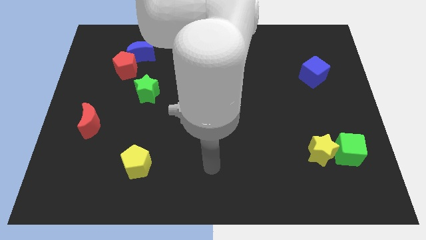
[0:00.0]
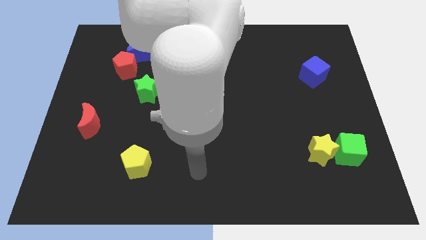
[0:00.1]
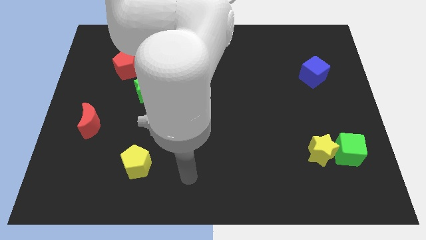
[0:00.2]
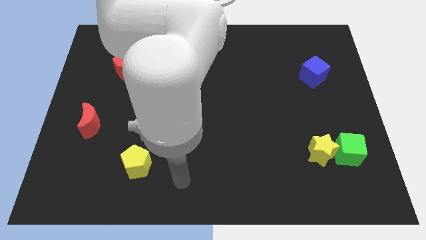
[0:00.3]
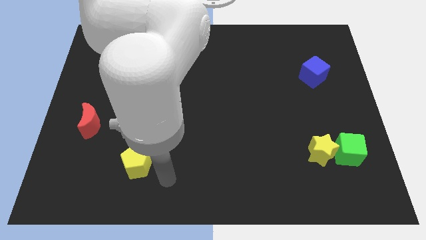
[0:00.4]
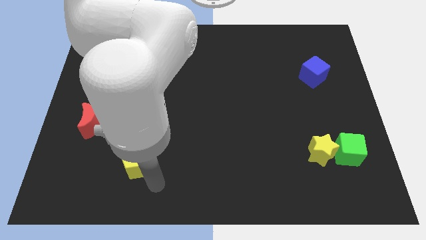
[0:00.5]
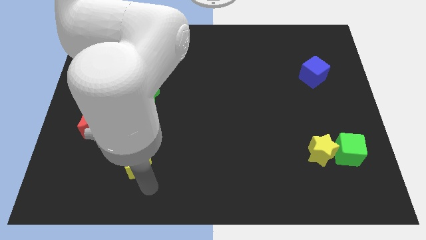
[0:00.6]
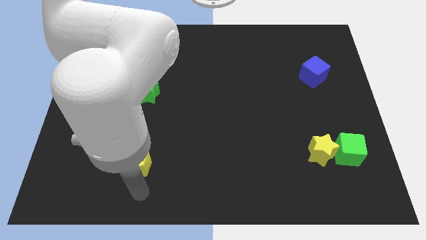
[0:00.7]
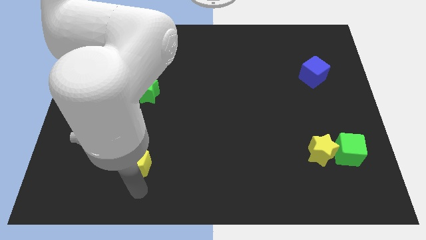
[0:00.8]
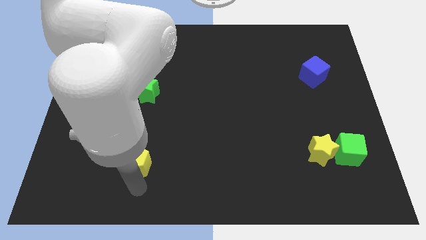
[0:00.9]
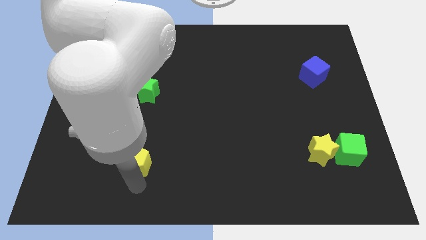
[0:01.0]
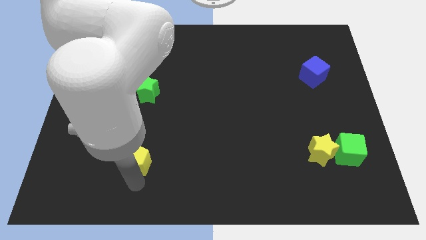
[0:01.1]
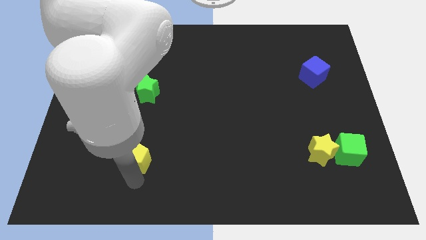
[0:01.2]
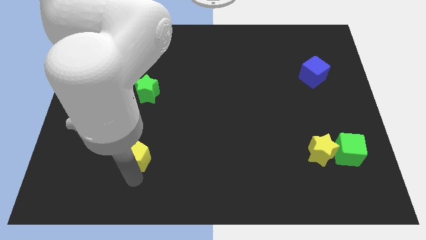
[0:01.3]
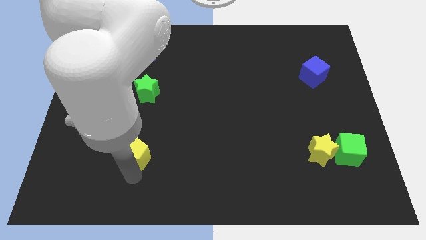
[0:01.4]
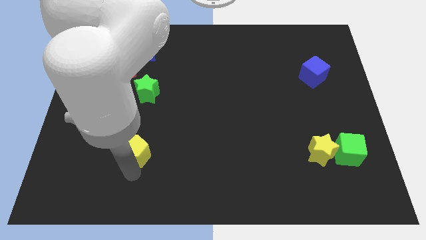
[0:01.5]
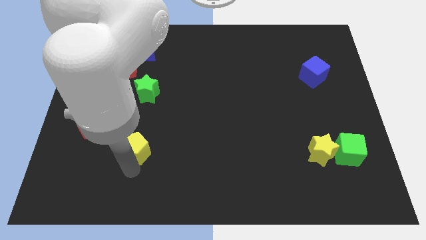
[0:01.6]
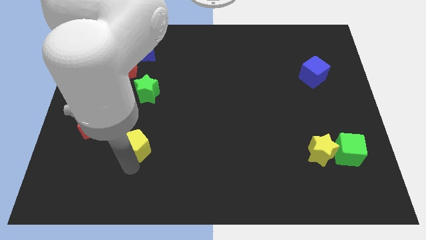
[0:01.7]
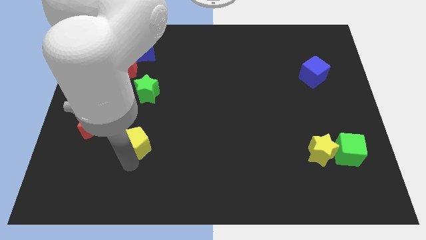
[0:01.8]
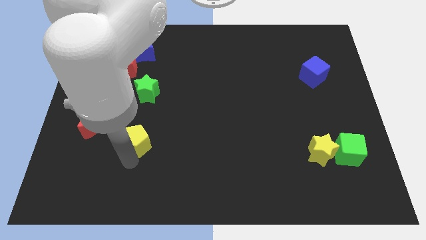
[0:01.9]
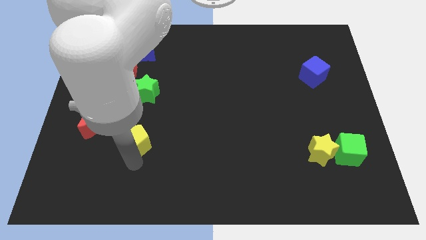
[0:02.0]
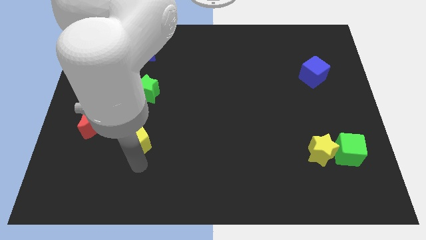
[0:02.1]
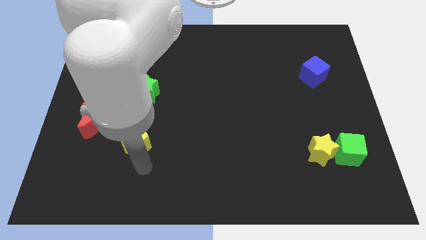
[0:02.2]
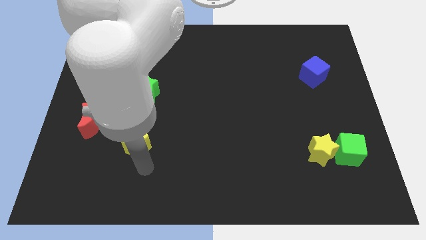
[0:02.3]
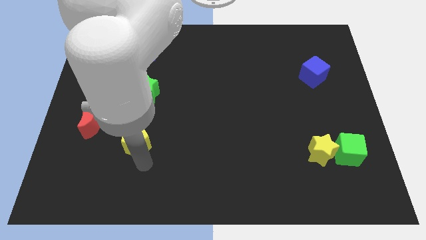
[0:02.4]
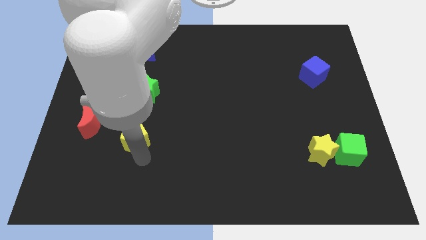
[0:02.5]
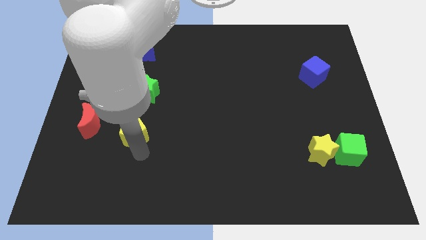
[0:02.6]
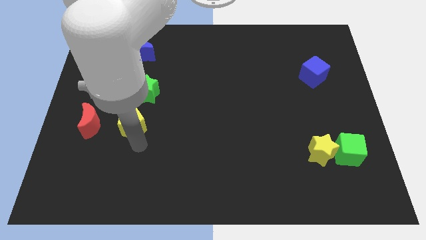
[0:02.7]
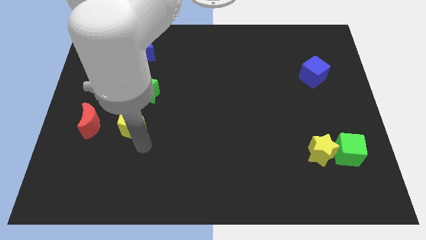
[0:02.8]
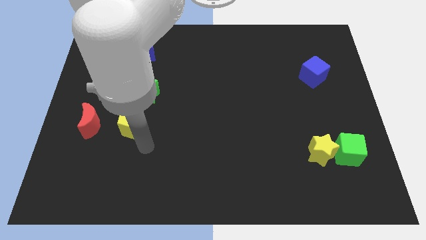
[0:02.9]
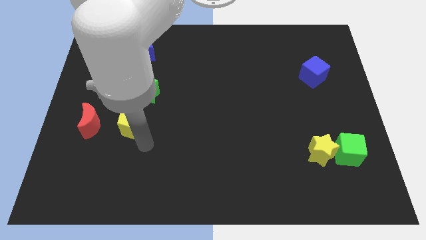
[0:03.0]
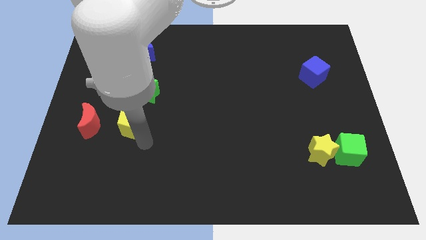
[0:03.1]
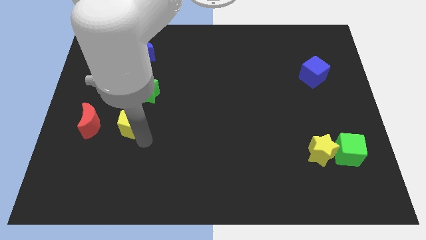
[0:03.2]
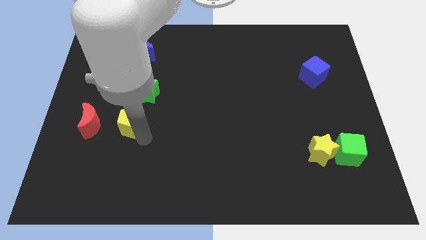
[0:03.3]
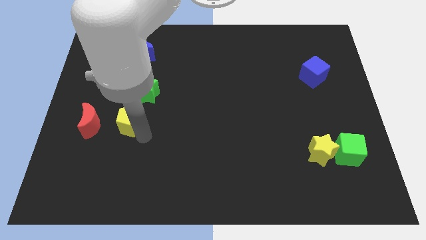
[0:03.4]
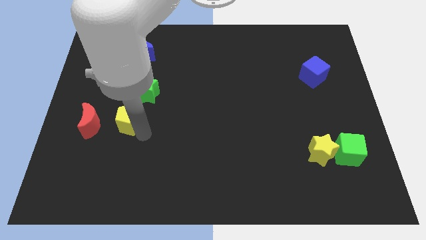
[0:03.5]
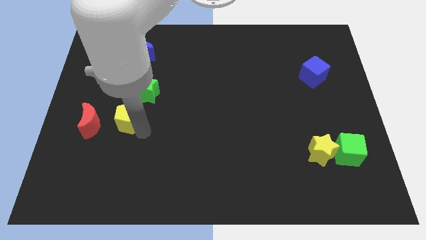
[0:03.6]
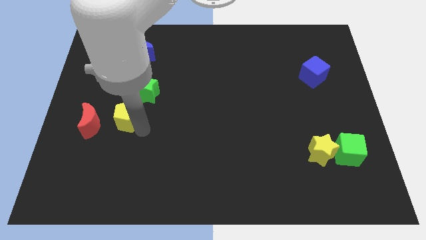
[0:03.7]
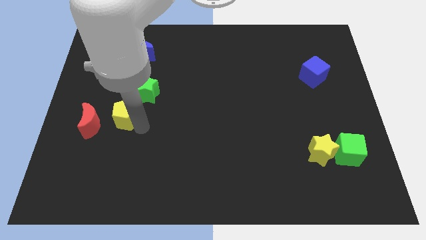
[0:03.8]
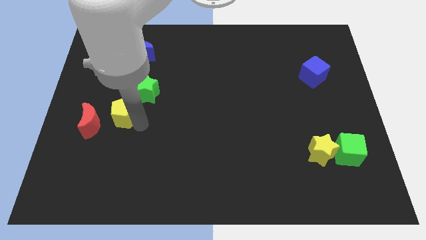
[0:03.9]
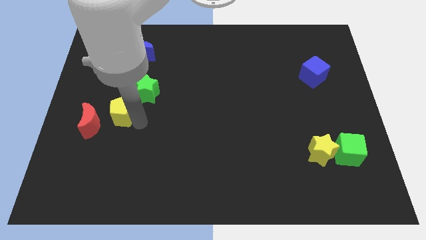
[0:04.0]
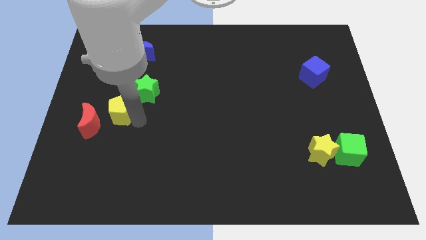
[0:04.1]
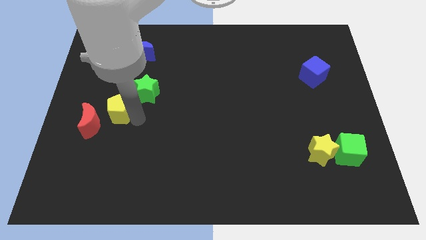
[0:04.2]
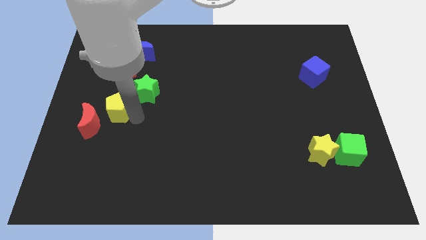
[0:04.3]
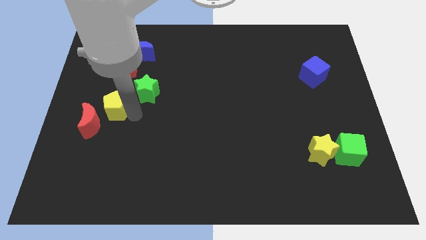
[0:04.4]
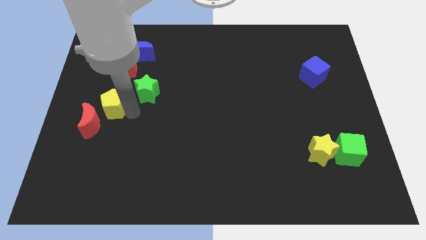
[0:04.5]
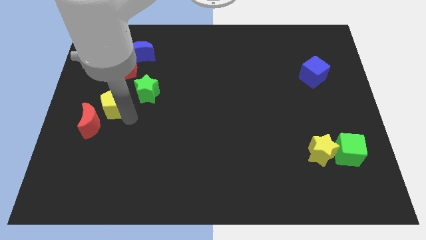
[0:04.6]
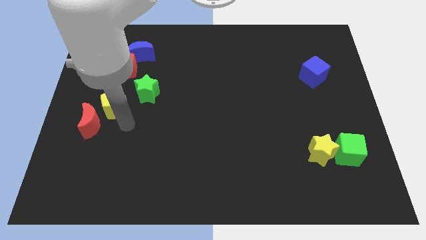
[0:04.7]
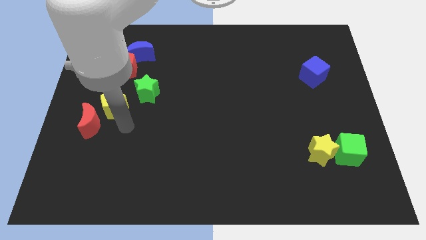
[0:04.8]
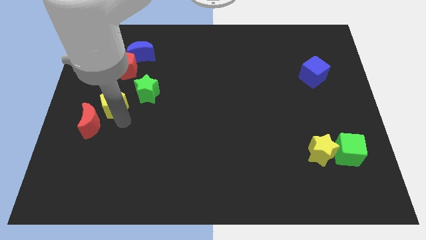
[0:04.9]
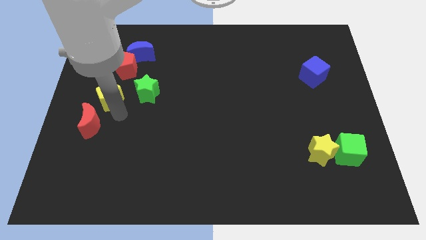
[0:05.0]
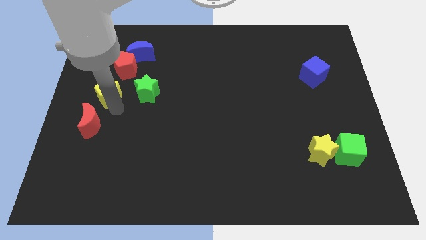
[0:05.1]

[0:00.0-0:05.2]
push the yellow pentagon diagonally down and to the left of the red pentagon

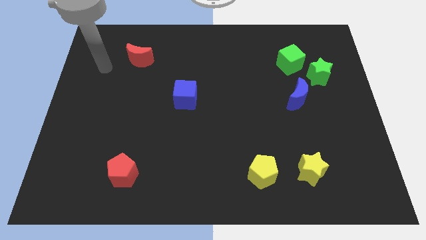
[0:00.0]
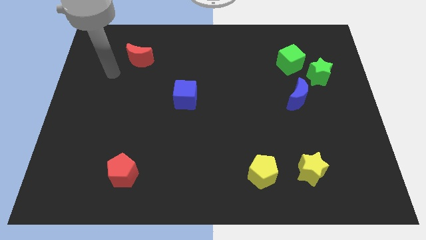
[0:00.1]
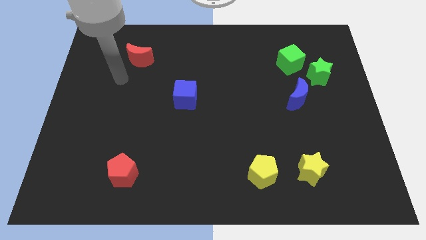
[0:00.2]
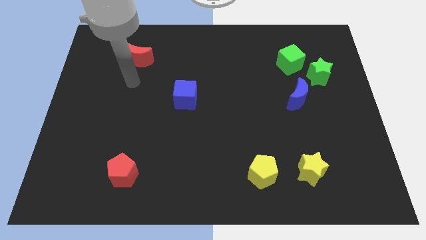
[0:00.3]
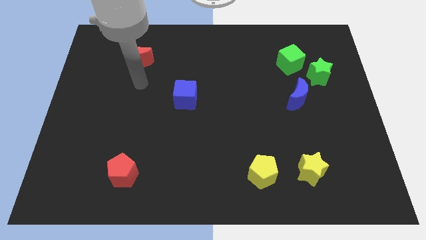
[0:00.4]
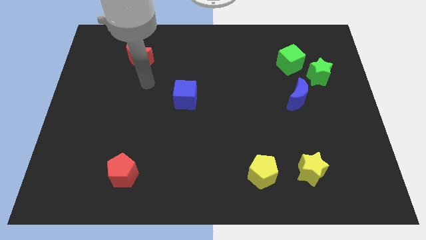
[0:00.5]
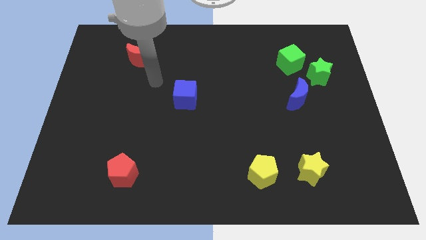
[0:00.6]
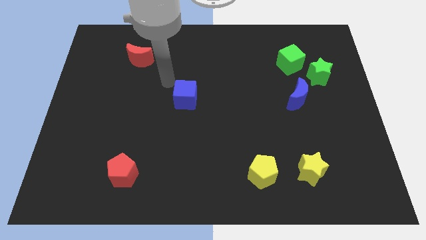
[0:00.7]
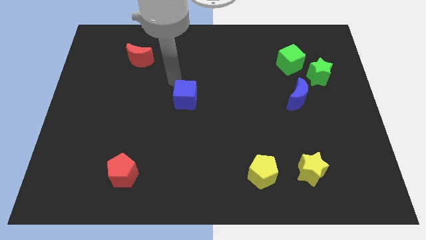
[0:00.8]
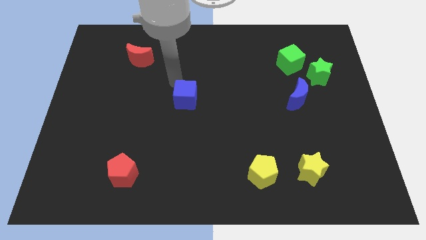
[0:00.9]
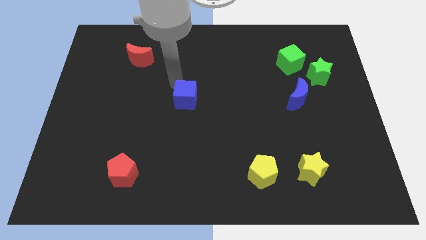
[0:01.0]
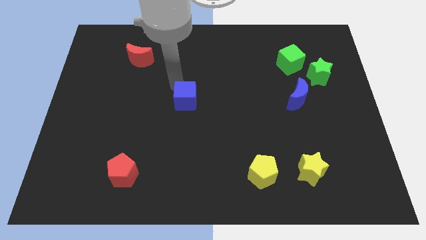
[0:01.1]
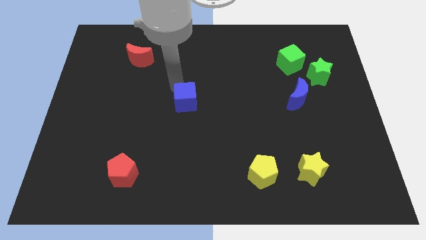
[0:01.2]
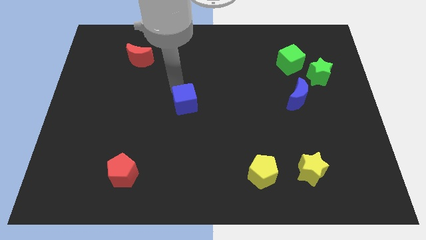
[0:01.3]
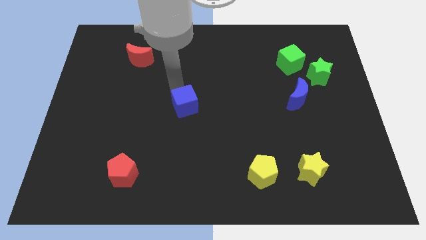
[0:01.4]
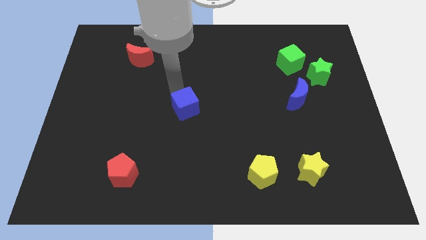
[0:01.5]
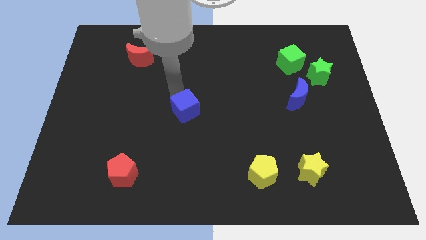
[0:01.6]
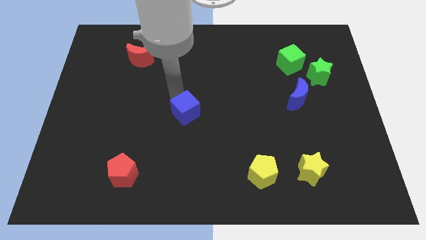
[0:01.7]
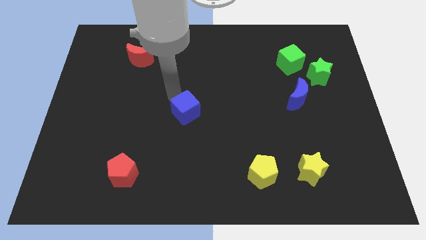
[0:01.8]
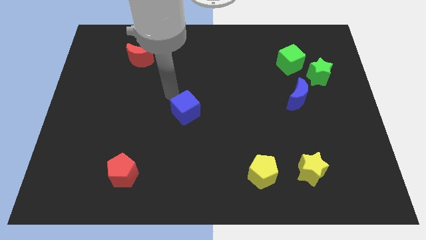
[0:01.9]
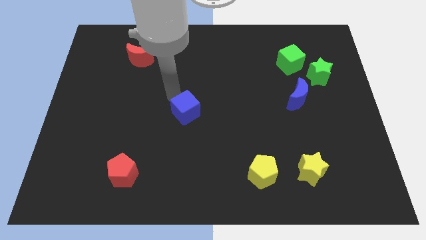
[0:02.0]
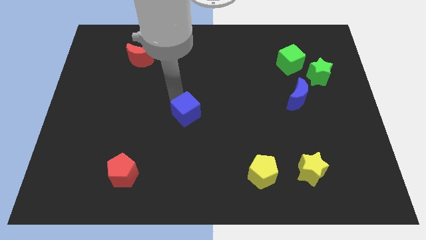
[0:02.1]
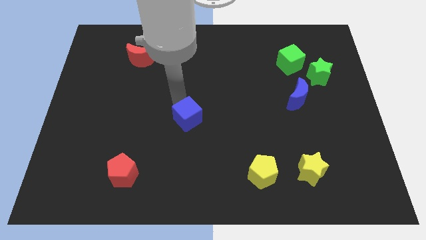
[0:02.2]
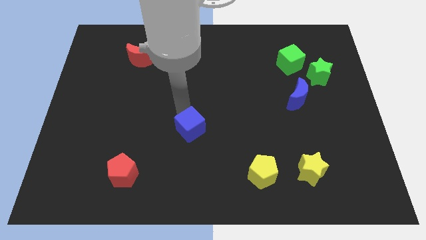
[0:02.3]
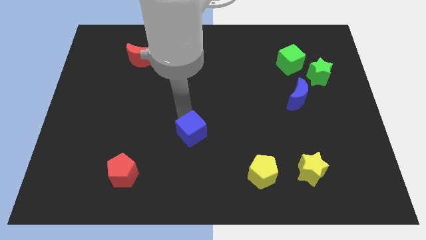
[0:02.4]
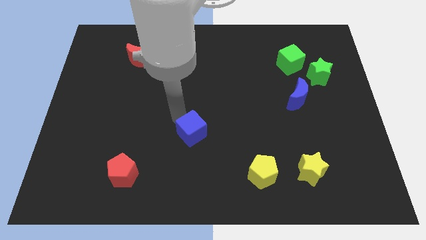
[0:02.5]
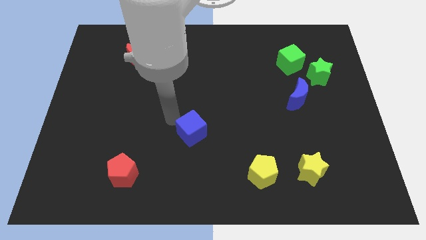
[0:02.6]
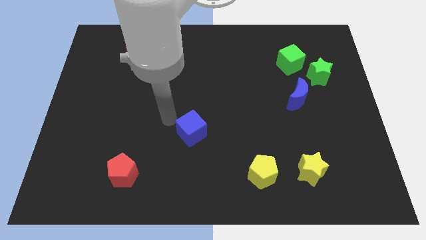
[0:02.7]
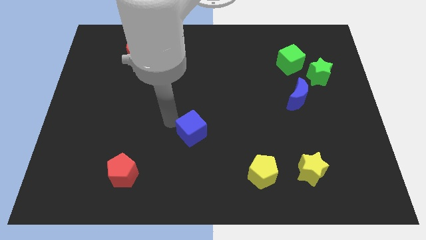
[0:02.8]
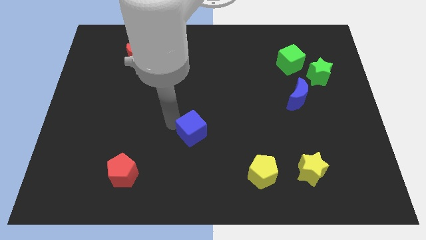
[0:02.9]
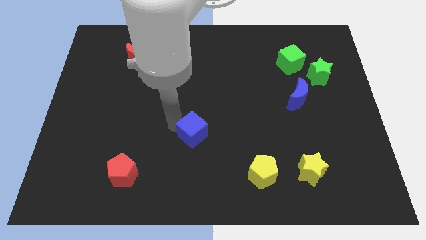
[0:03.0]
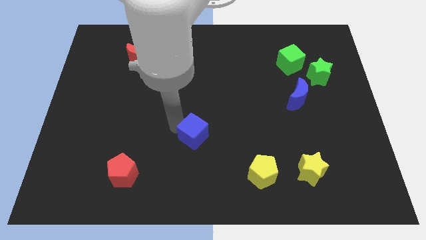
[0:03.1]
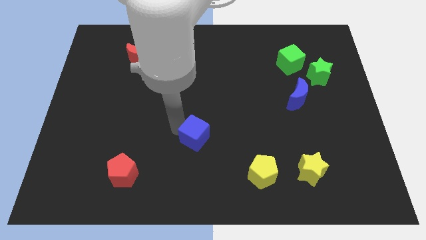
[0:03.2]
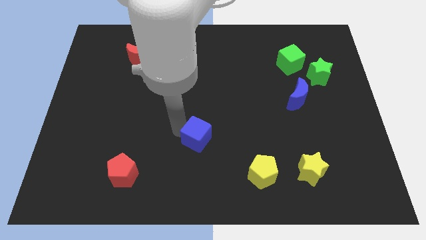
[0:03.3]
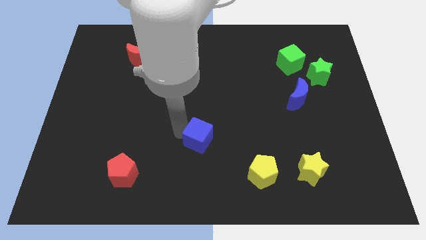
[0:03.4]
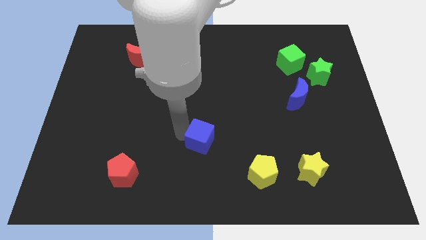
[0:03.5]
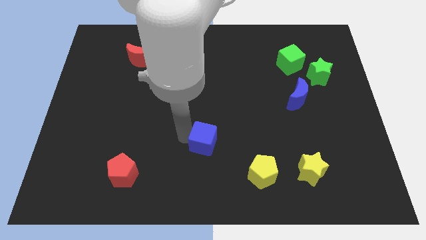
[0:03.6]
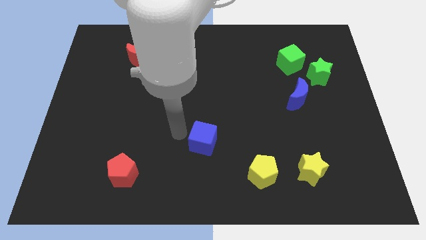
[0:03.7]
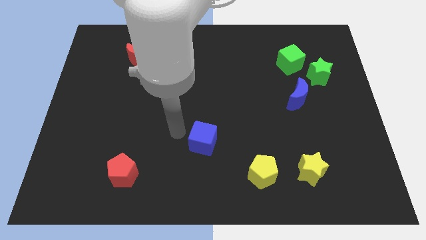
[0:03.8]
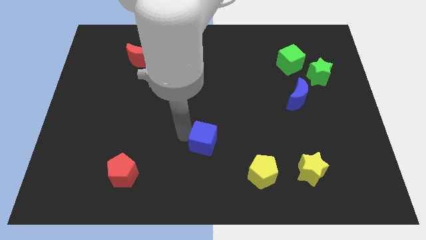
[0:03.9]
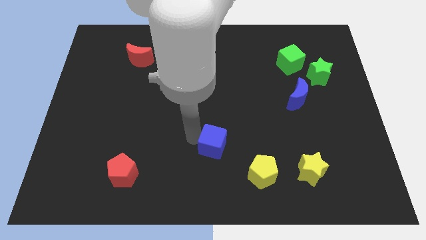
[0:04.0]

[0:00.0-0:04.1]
push the blue cube diagonally up and to the left of the yellow pentagon
